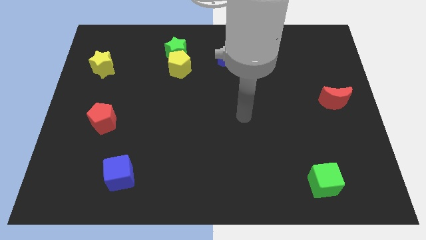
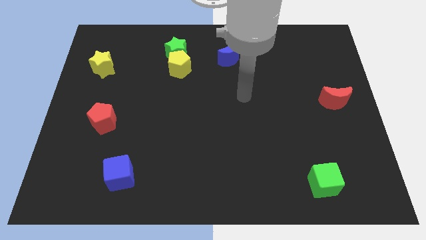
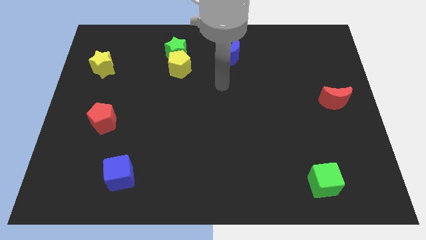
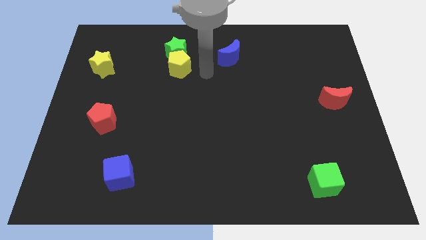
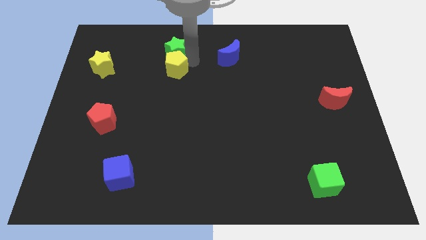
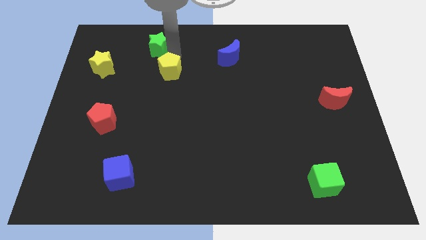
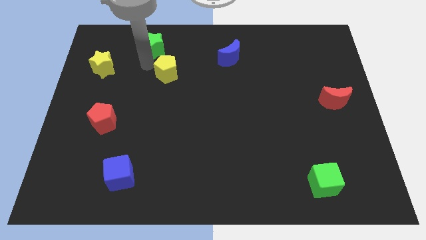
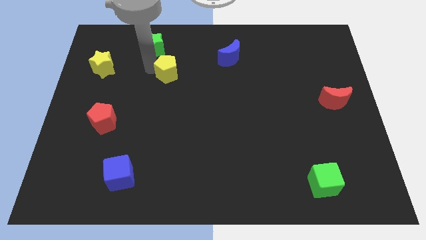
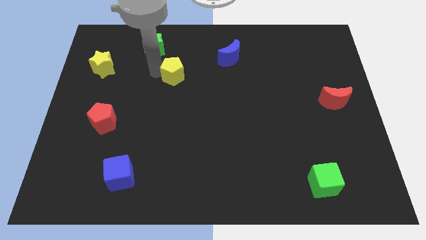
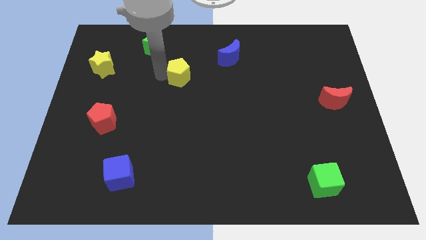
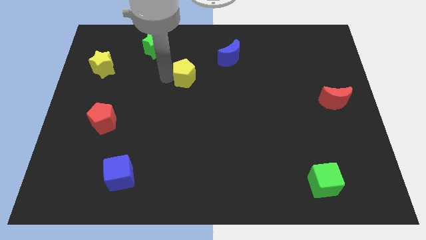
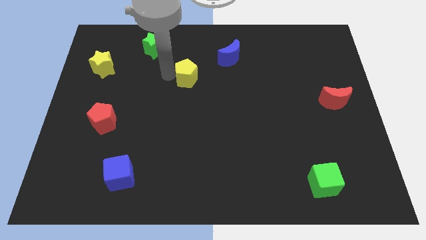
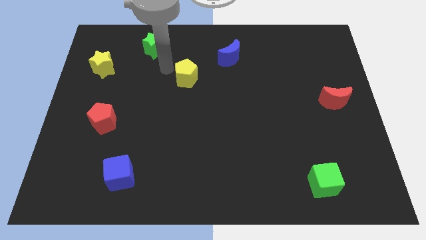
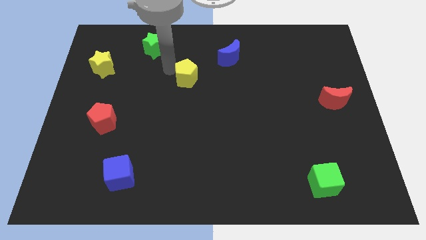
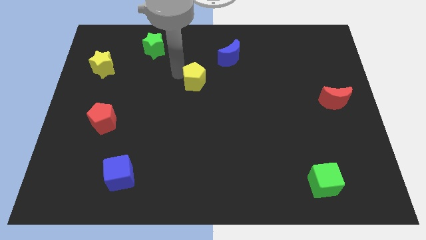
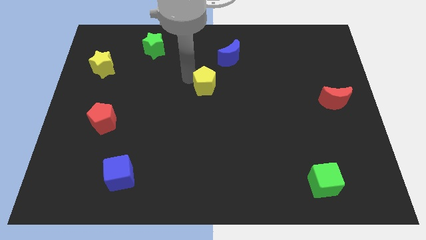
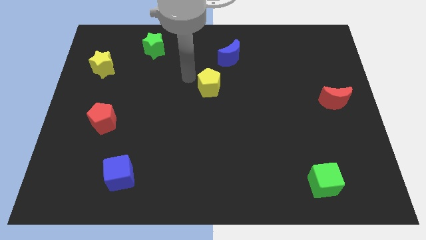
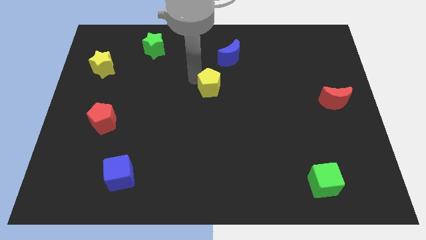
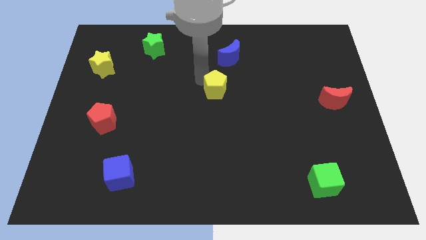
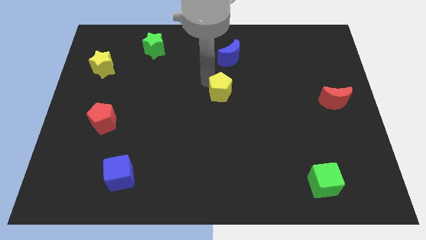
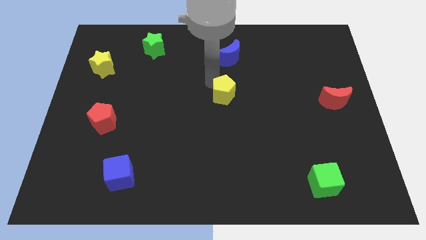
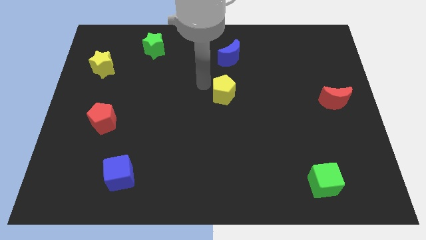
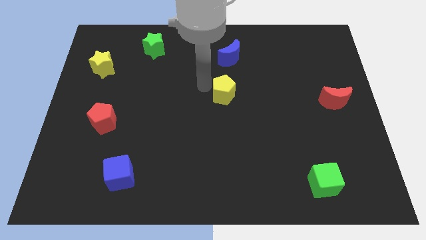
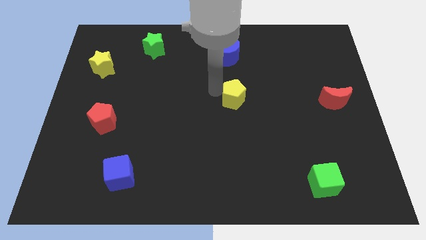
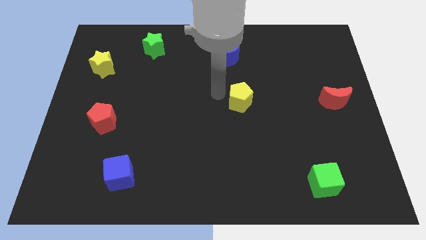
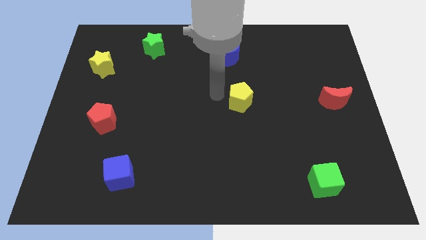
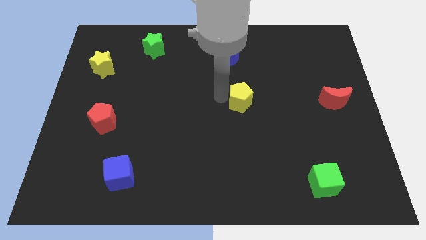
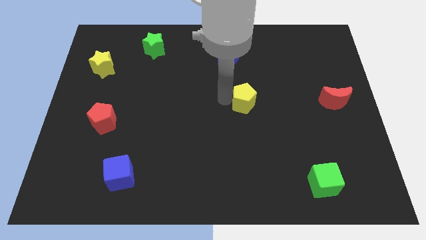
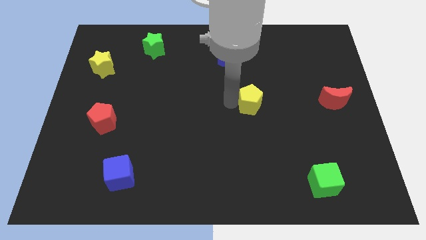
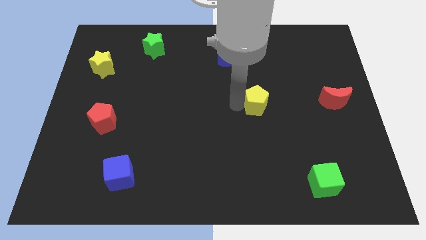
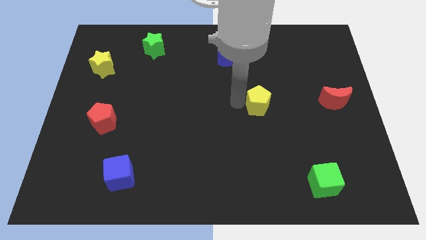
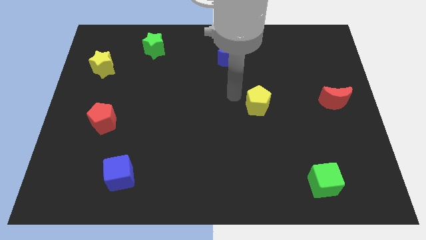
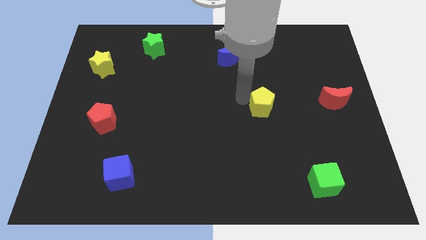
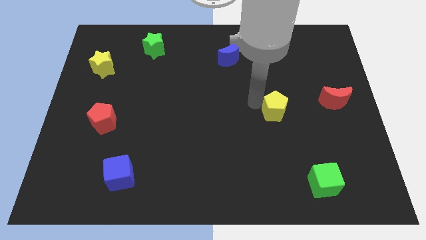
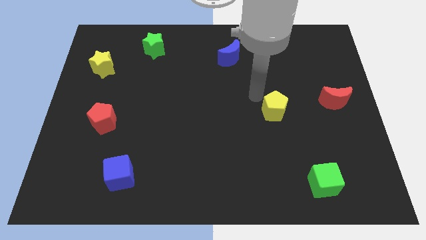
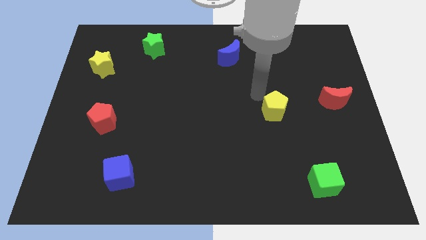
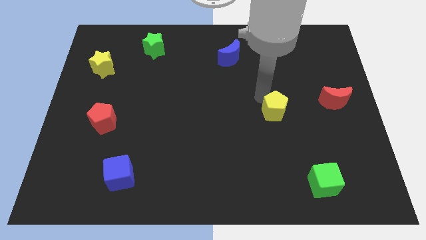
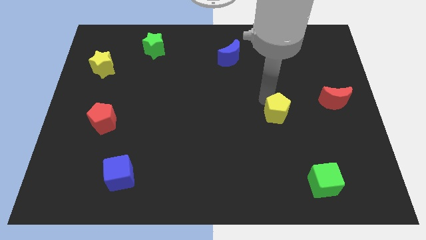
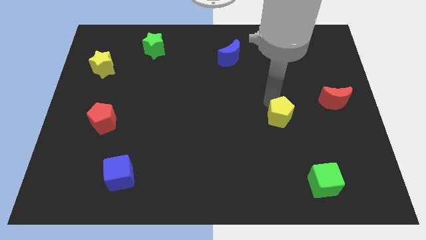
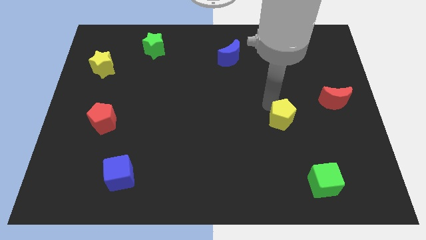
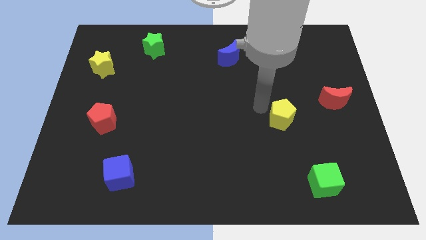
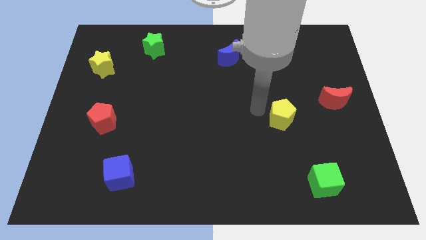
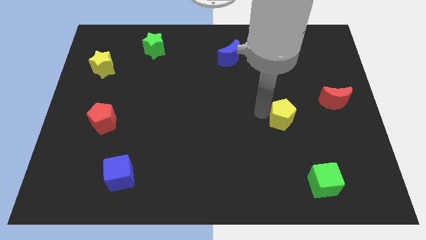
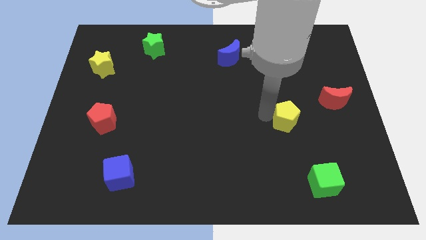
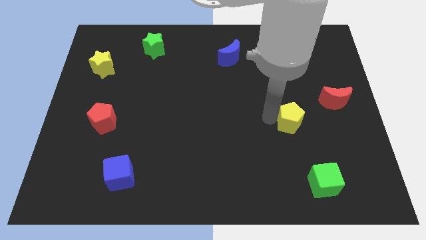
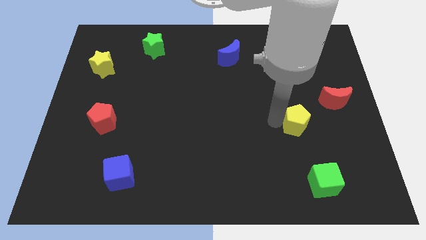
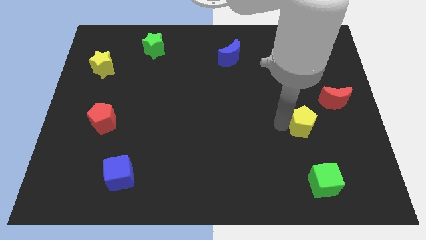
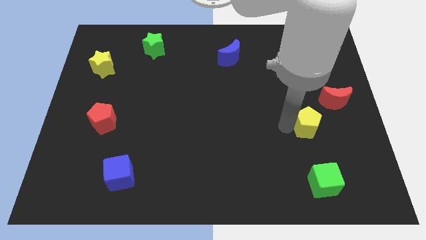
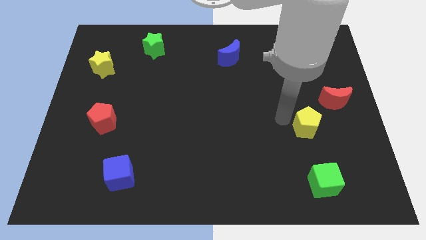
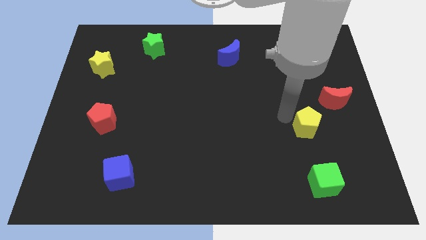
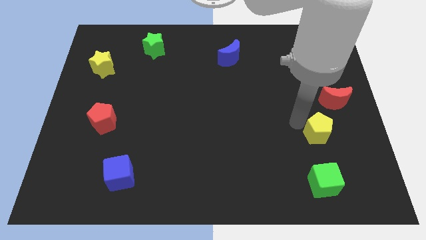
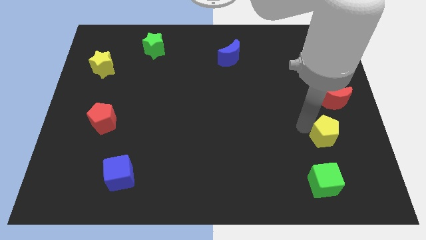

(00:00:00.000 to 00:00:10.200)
slide the yellow pentagon to the bottom of the red moon

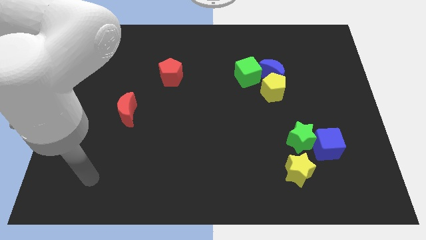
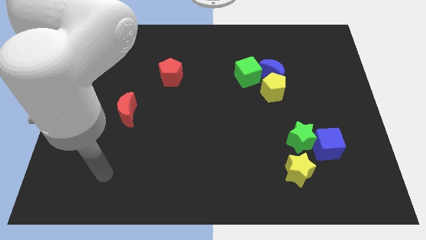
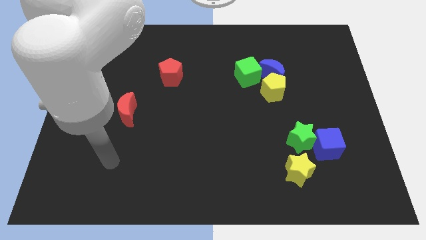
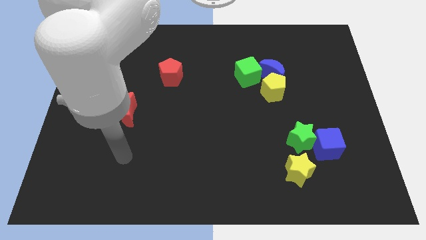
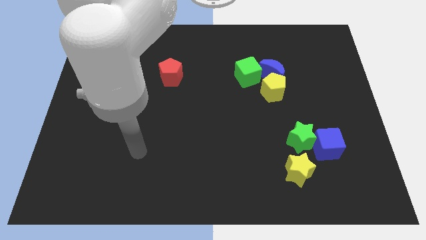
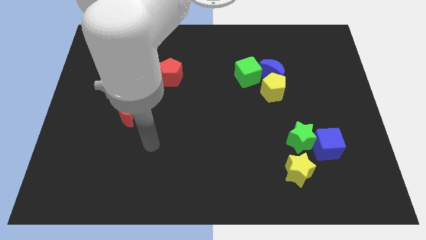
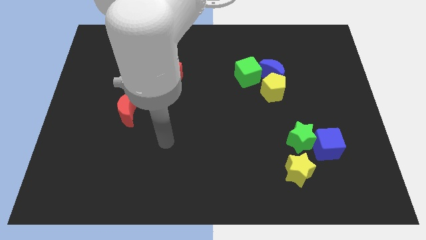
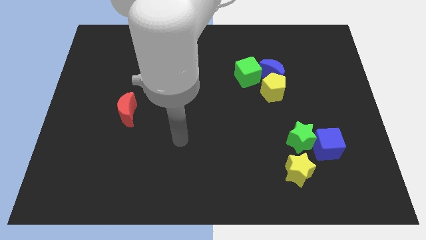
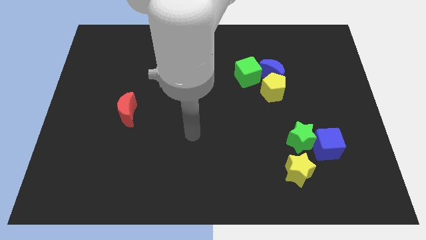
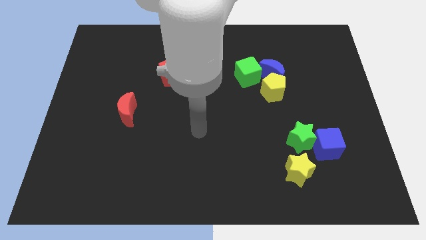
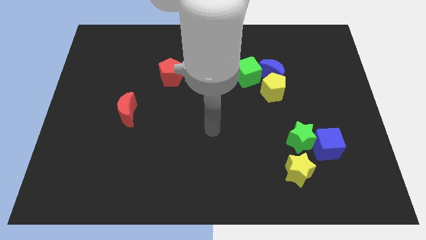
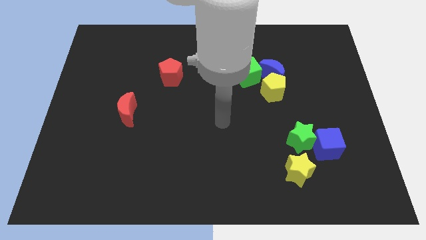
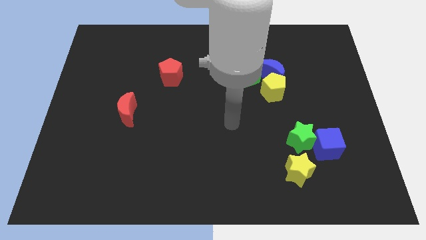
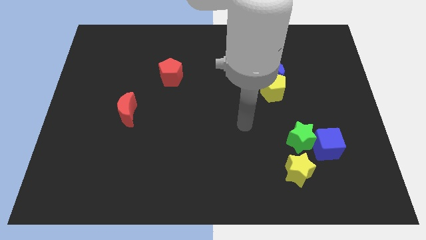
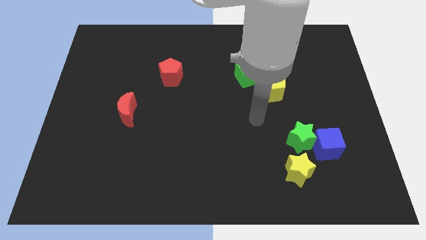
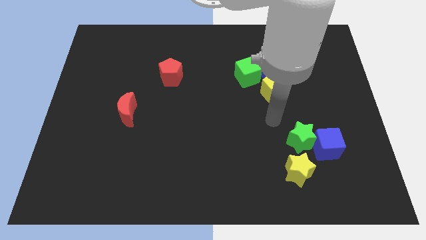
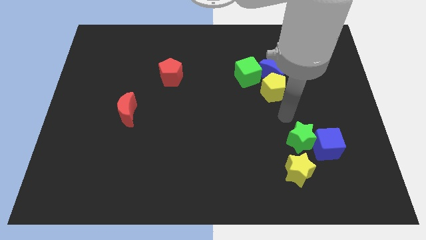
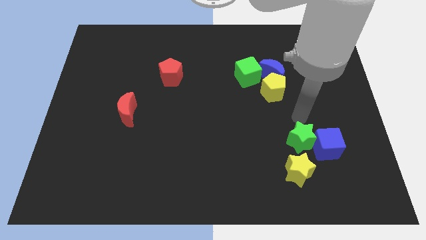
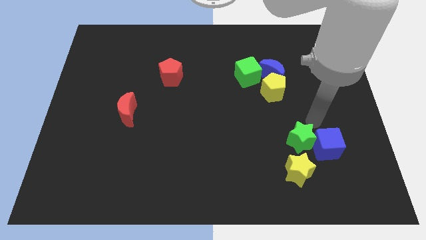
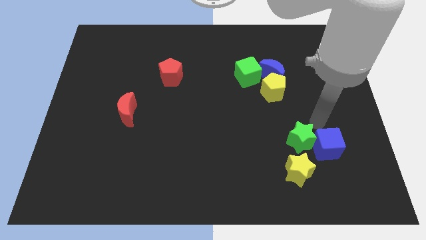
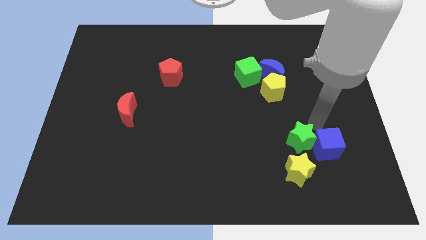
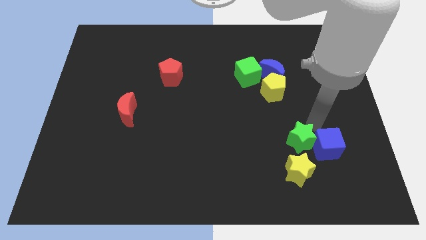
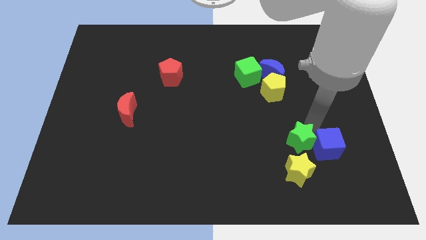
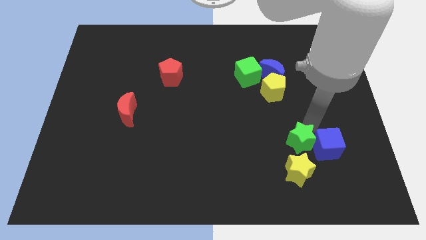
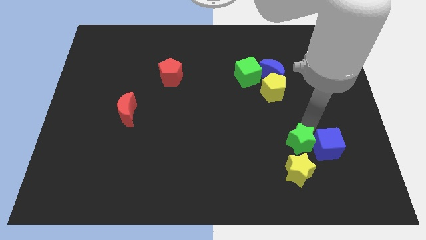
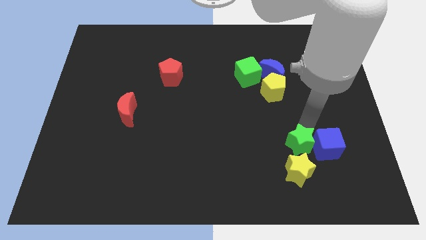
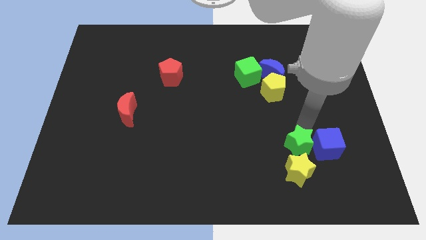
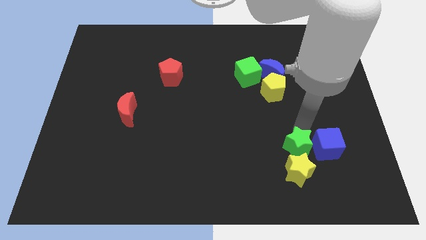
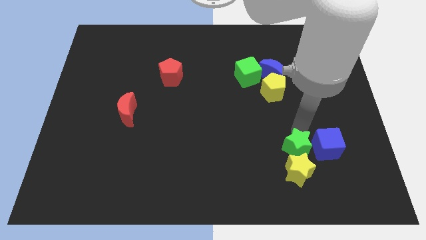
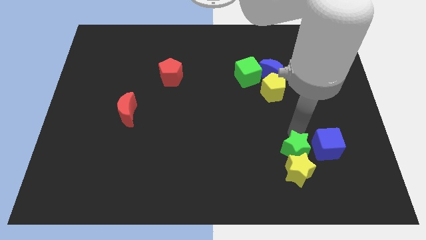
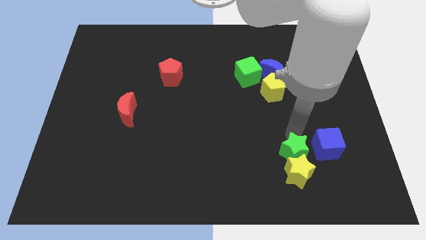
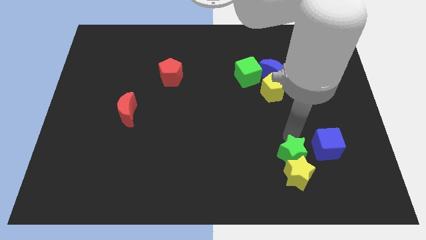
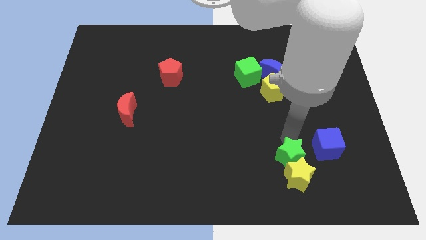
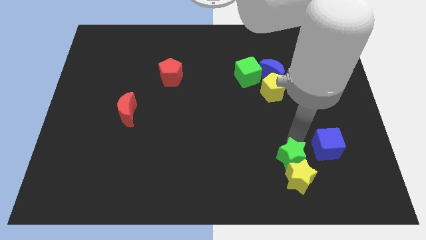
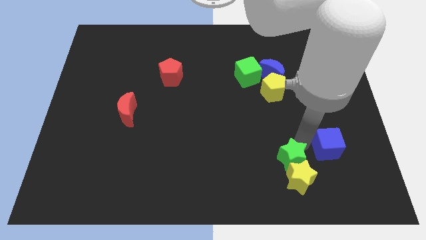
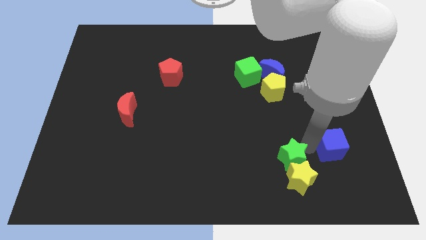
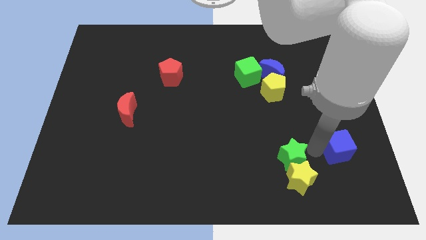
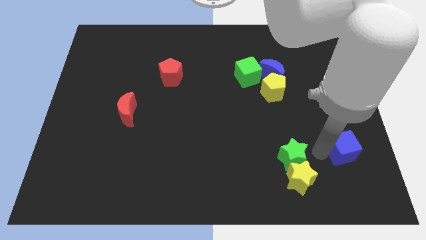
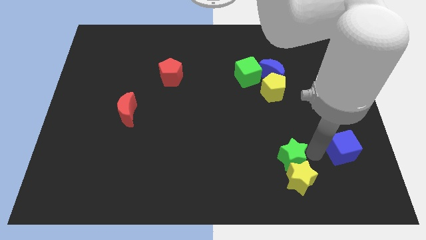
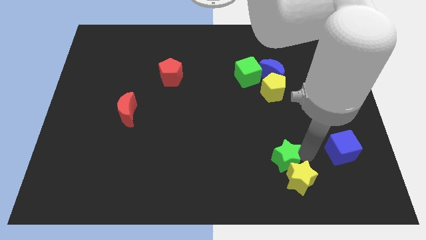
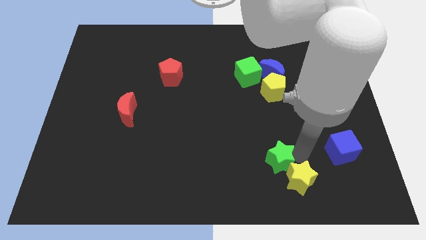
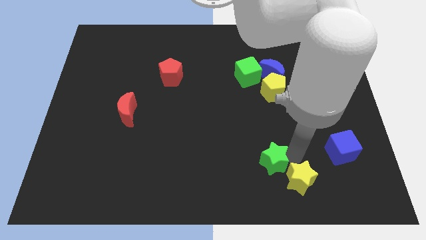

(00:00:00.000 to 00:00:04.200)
push the green star just left of the yellow star
